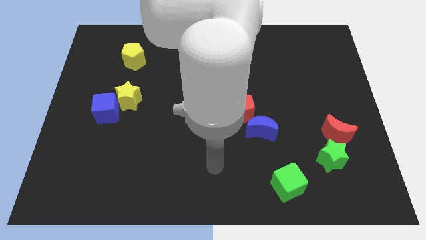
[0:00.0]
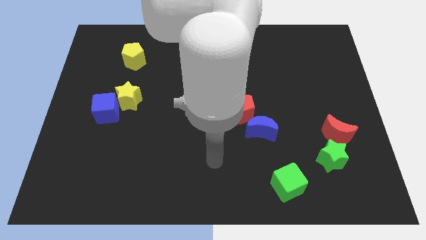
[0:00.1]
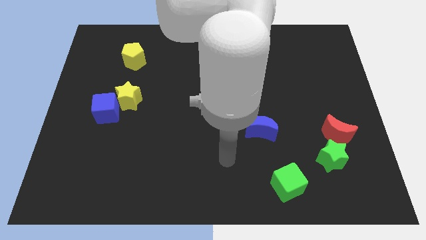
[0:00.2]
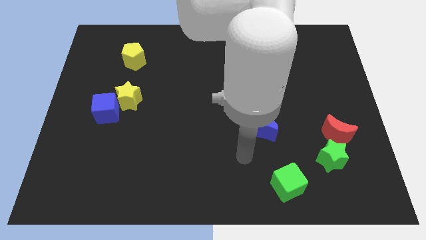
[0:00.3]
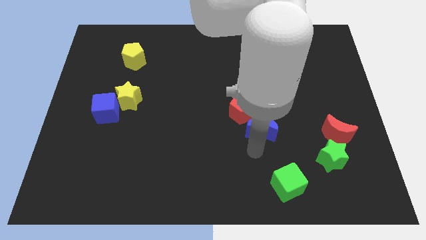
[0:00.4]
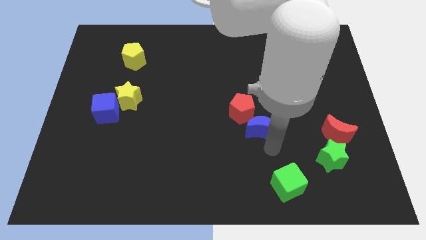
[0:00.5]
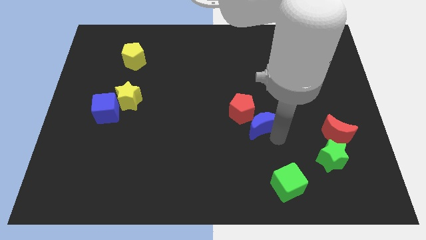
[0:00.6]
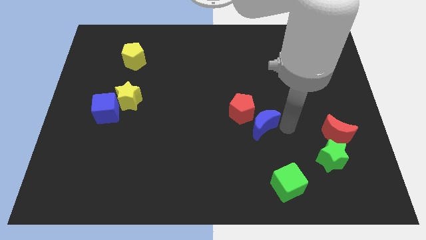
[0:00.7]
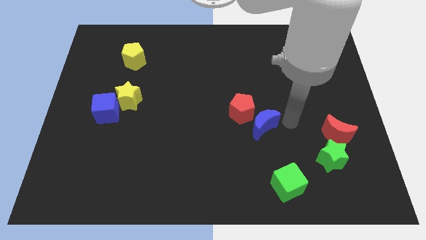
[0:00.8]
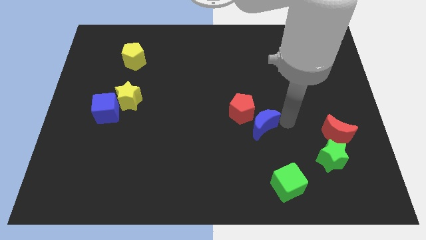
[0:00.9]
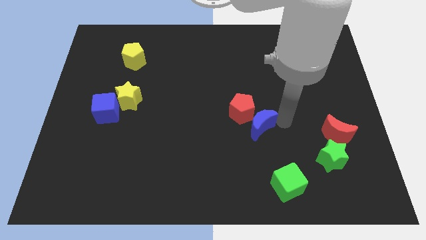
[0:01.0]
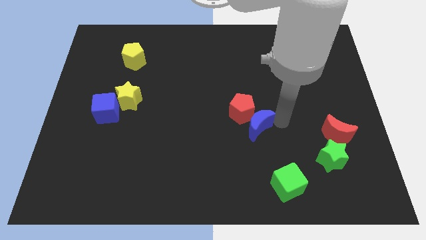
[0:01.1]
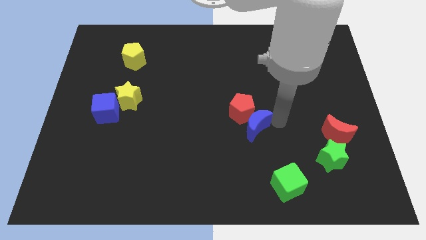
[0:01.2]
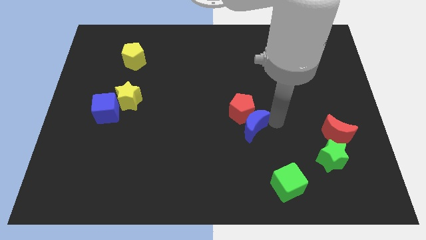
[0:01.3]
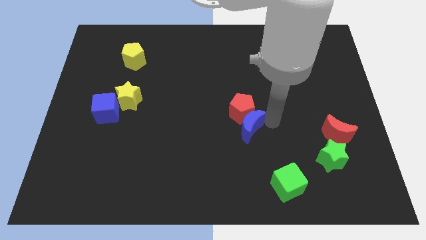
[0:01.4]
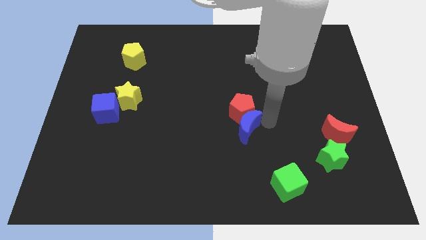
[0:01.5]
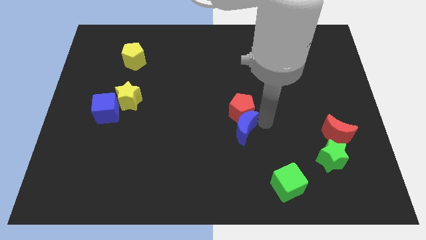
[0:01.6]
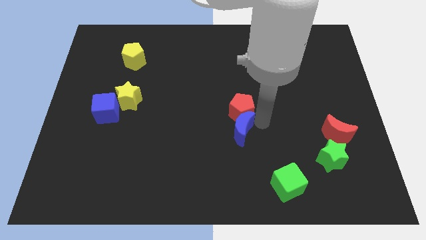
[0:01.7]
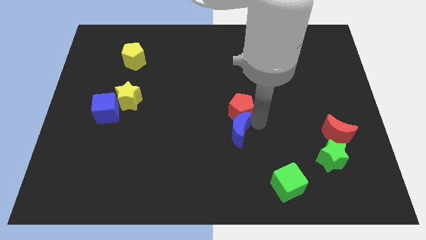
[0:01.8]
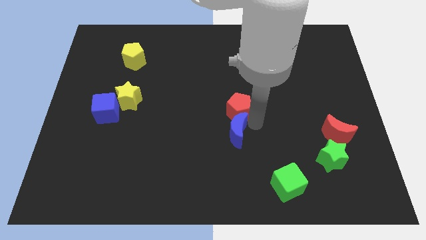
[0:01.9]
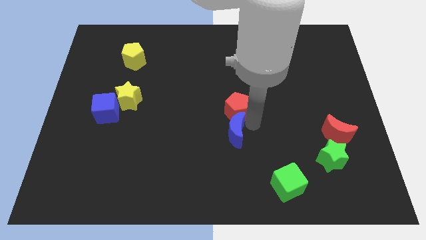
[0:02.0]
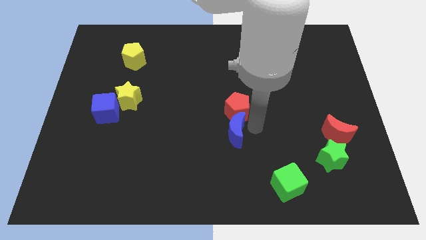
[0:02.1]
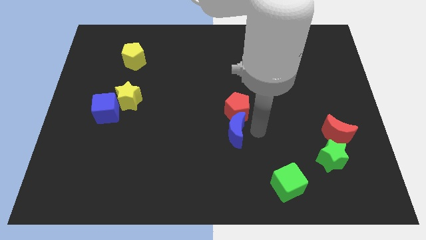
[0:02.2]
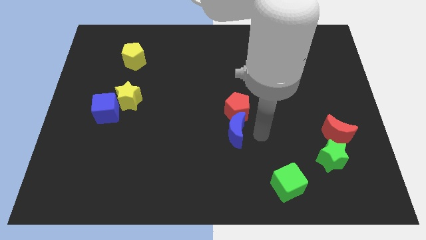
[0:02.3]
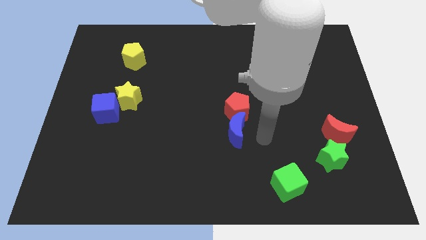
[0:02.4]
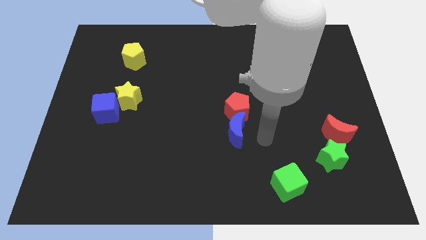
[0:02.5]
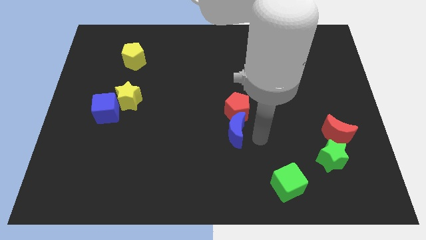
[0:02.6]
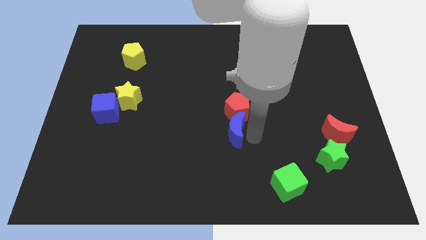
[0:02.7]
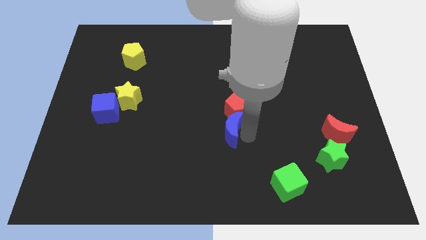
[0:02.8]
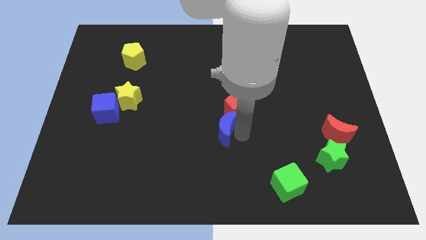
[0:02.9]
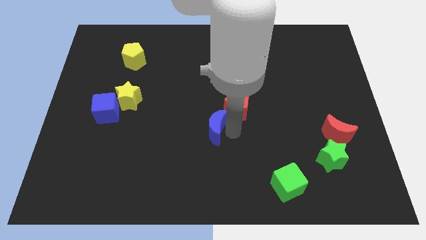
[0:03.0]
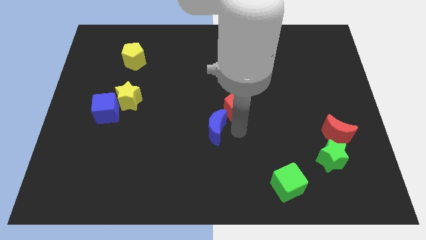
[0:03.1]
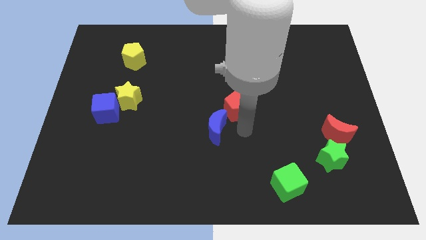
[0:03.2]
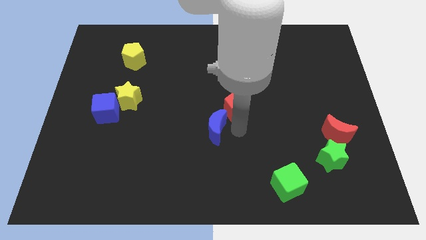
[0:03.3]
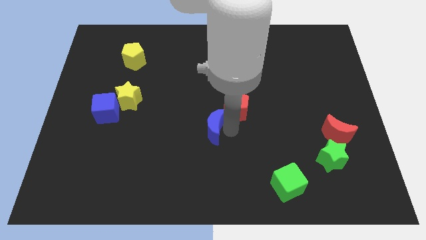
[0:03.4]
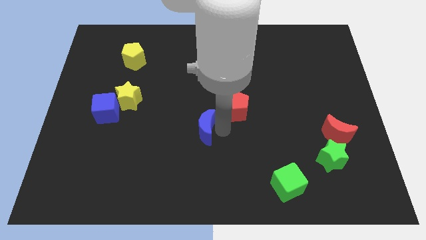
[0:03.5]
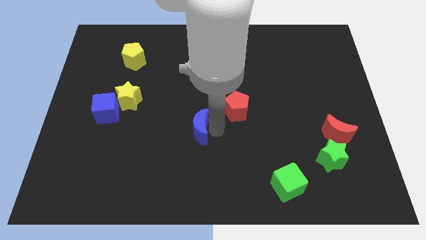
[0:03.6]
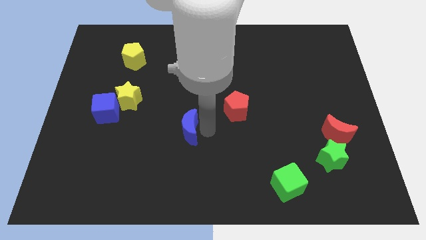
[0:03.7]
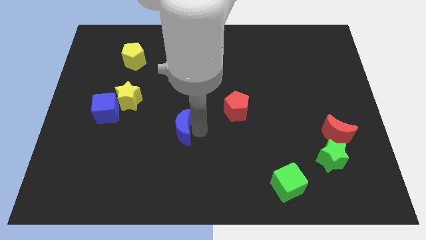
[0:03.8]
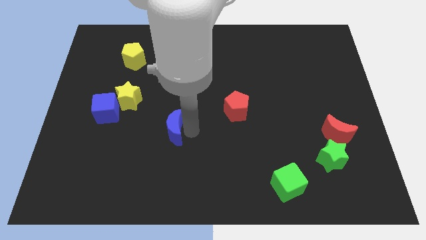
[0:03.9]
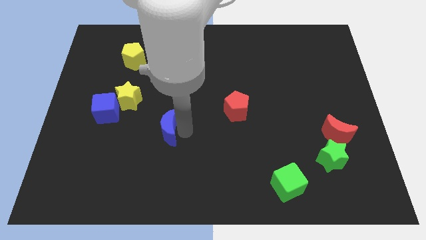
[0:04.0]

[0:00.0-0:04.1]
move the blue moon left

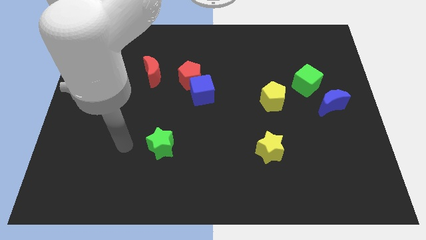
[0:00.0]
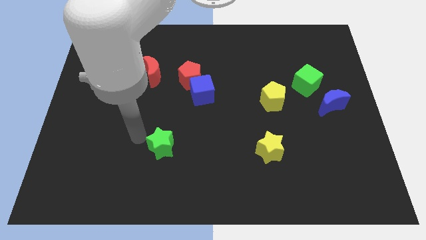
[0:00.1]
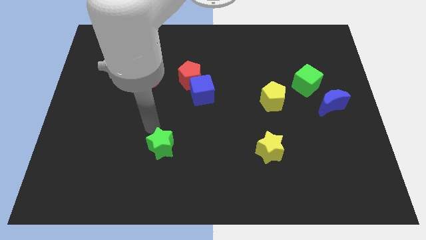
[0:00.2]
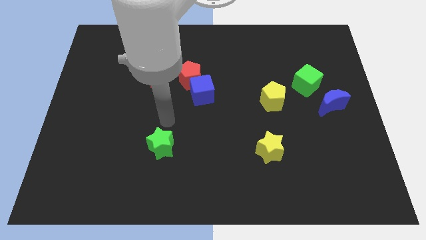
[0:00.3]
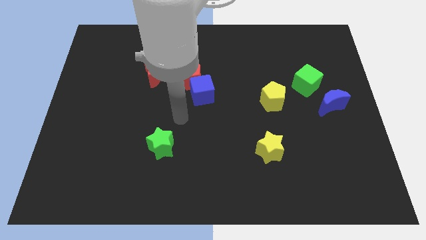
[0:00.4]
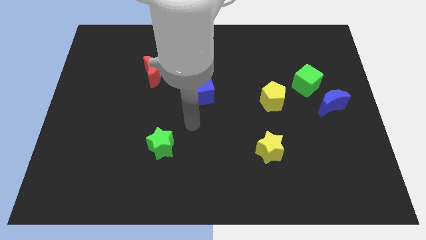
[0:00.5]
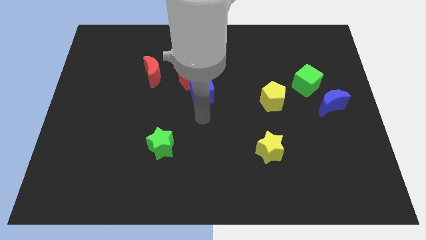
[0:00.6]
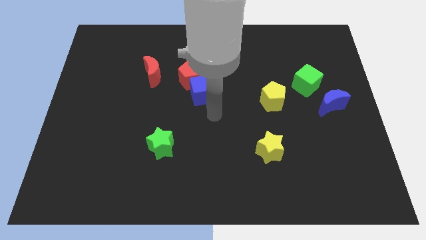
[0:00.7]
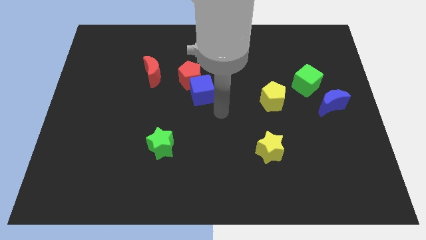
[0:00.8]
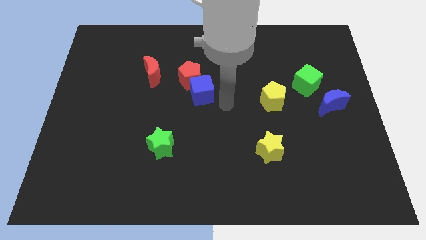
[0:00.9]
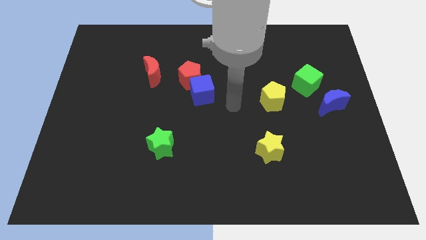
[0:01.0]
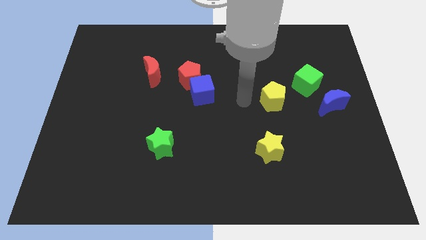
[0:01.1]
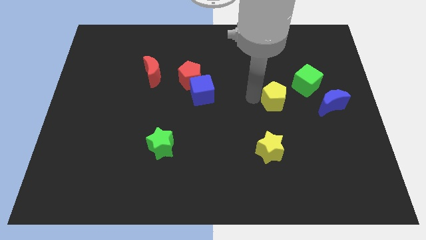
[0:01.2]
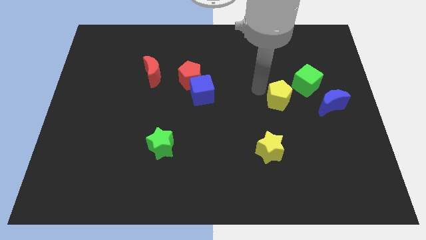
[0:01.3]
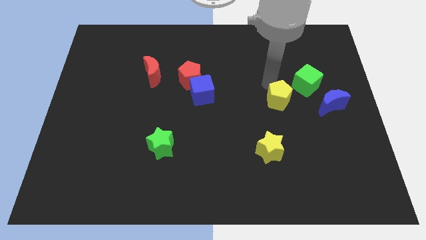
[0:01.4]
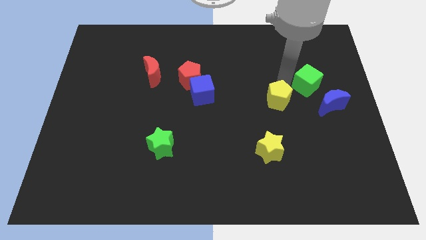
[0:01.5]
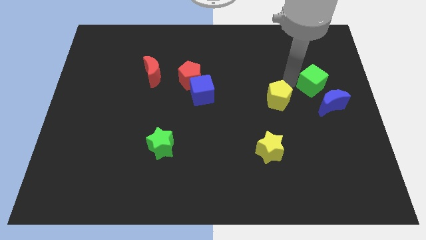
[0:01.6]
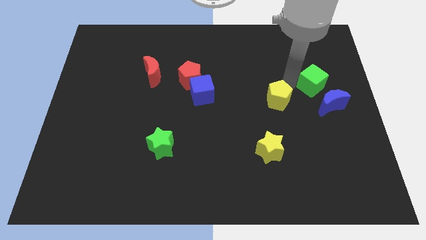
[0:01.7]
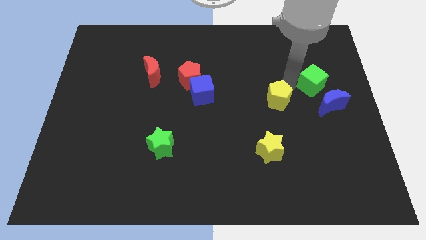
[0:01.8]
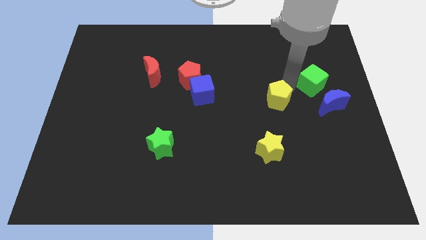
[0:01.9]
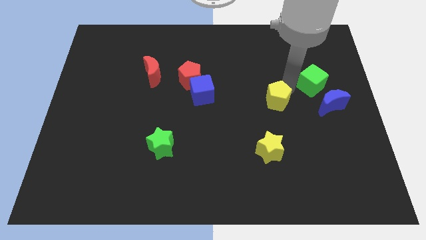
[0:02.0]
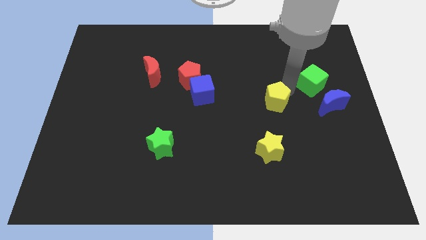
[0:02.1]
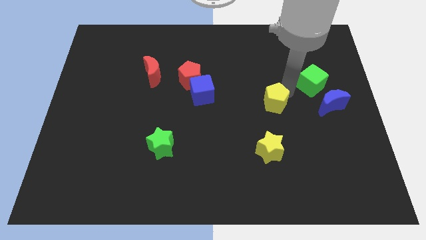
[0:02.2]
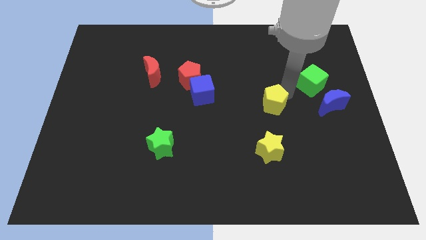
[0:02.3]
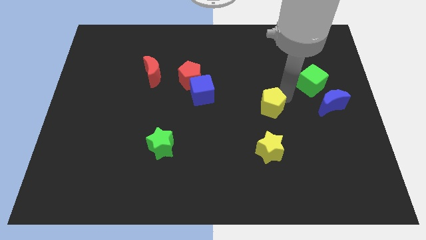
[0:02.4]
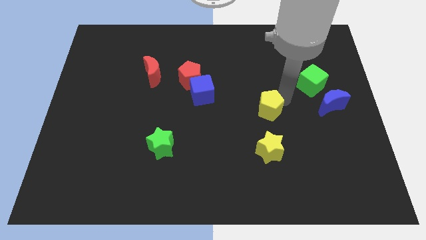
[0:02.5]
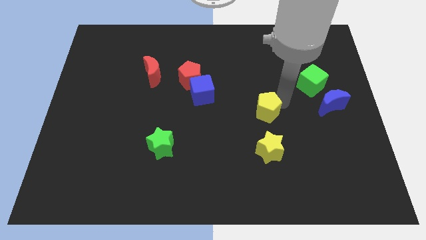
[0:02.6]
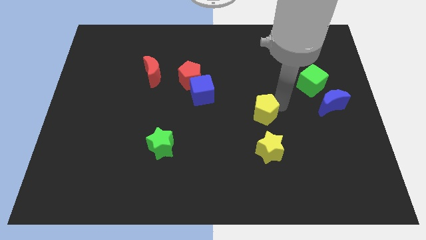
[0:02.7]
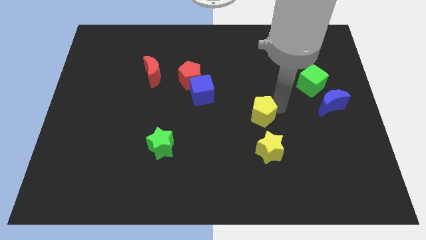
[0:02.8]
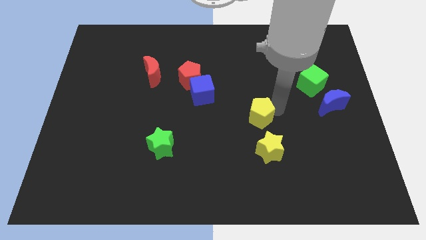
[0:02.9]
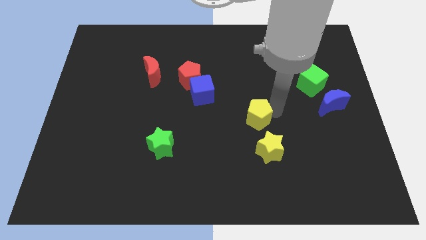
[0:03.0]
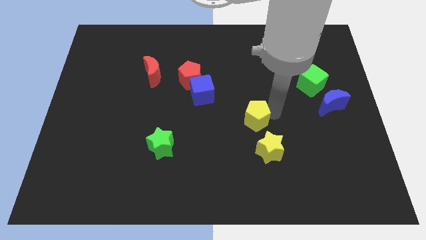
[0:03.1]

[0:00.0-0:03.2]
slightly slide the yellow pentagon diagonally down and to the left

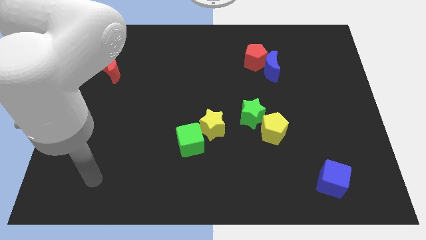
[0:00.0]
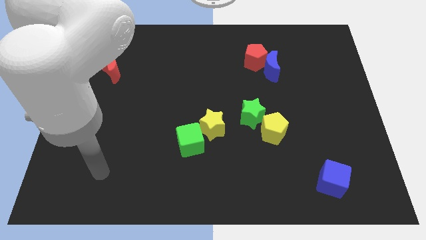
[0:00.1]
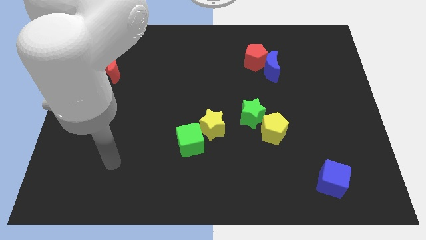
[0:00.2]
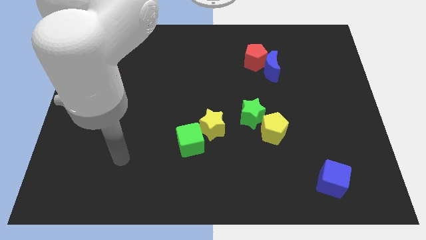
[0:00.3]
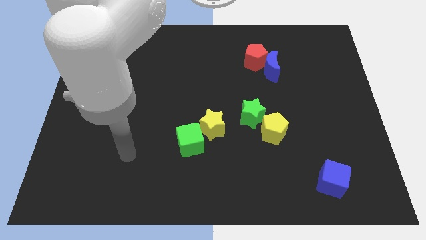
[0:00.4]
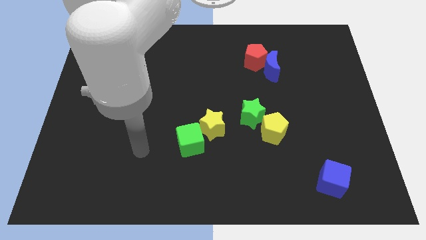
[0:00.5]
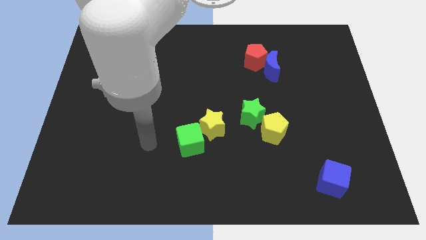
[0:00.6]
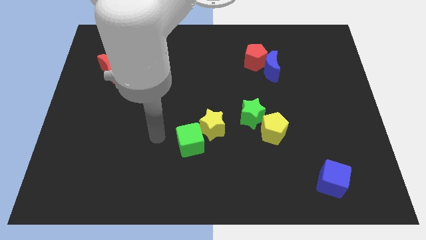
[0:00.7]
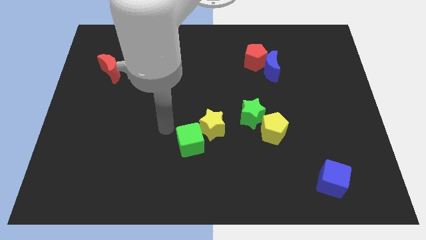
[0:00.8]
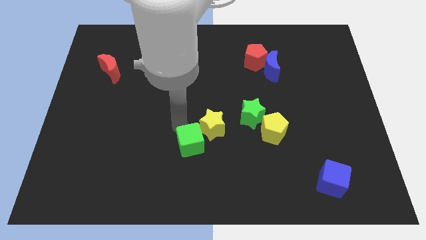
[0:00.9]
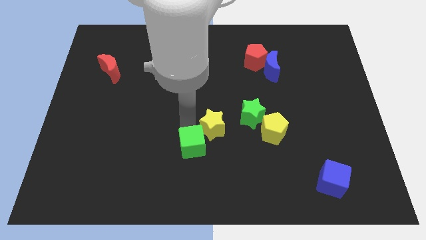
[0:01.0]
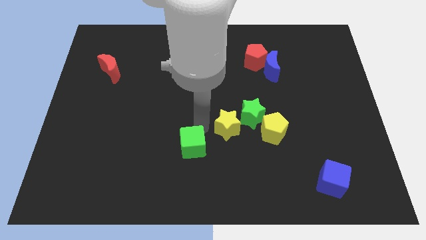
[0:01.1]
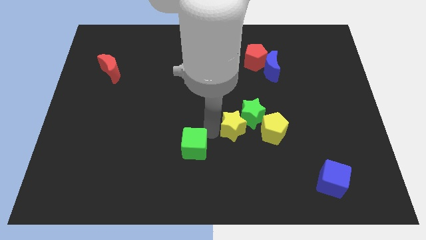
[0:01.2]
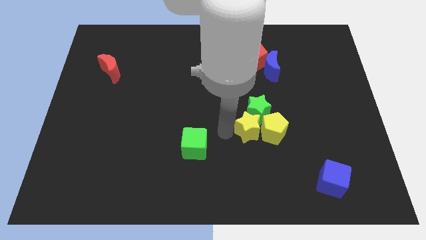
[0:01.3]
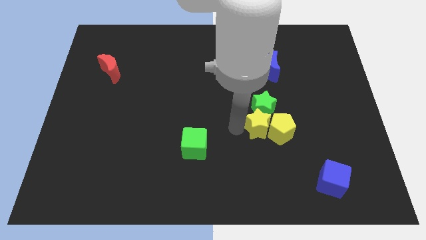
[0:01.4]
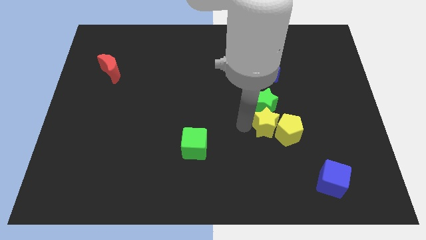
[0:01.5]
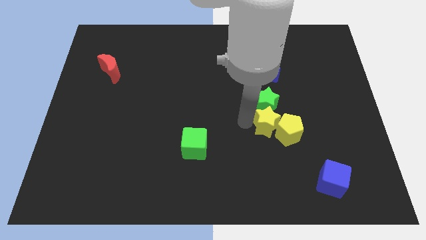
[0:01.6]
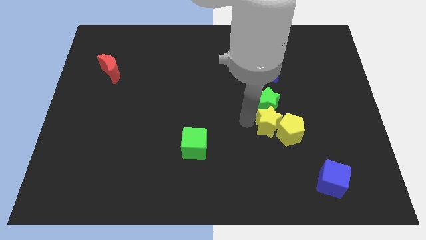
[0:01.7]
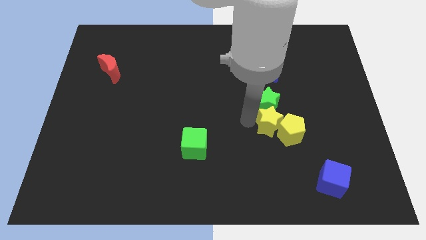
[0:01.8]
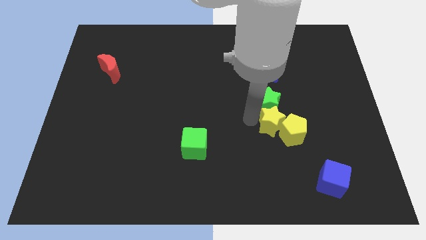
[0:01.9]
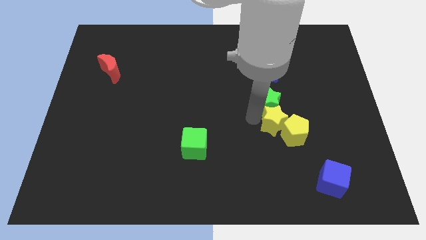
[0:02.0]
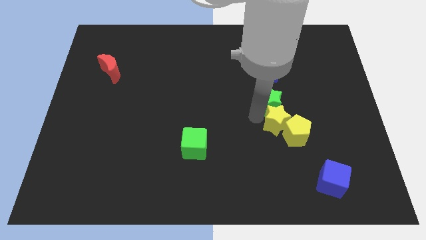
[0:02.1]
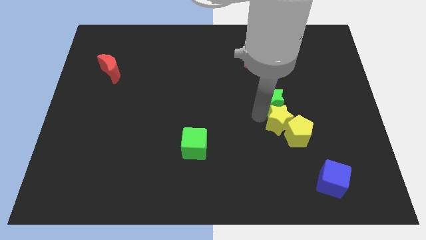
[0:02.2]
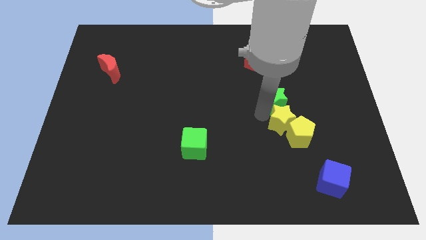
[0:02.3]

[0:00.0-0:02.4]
slide the green star slightly diagonally up and to the right
